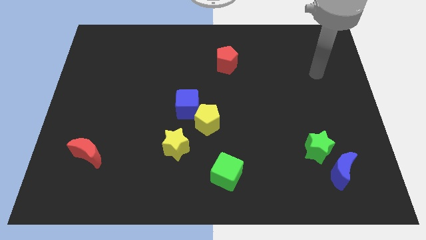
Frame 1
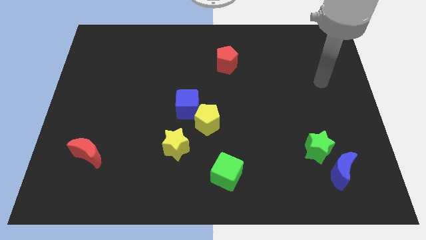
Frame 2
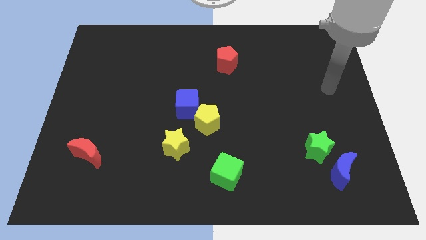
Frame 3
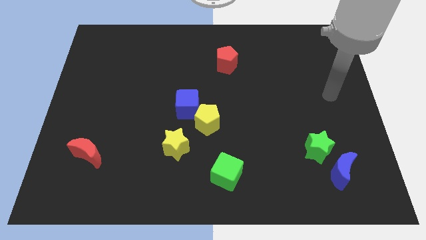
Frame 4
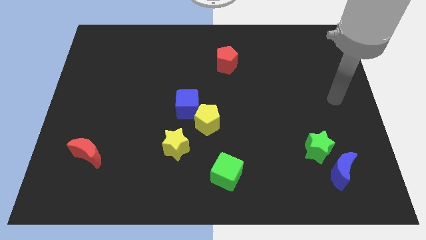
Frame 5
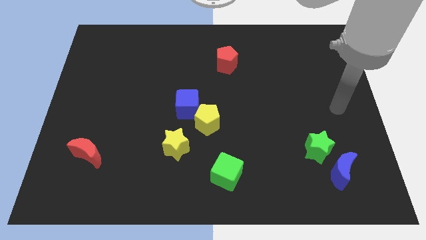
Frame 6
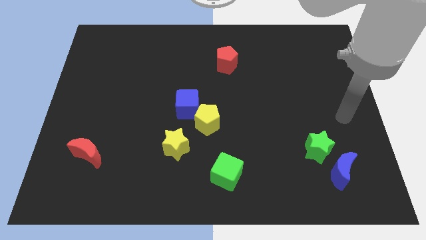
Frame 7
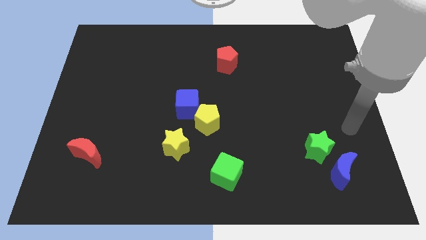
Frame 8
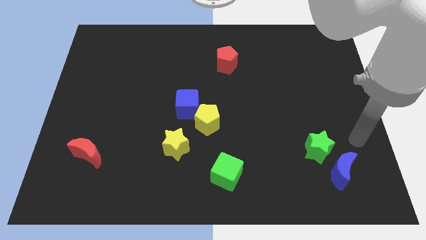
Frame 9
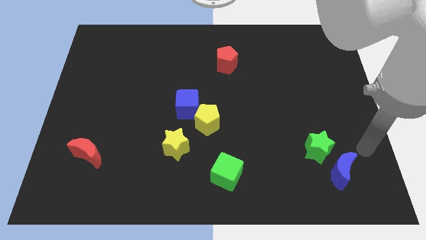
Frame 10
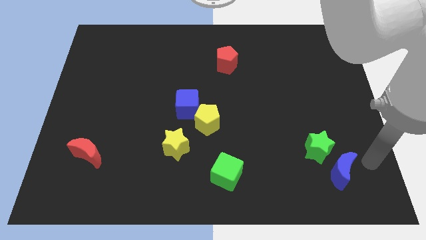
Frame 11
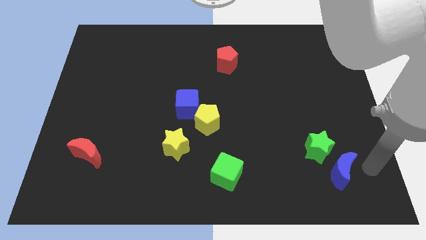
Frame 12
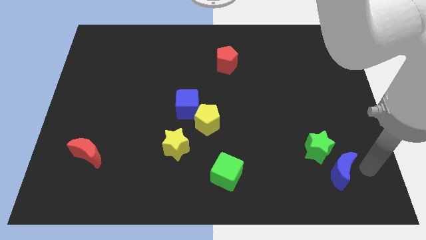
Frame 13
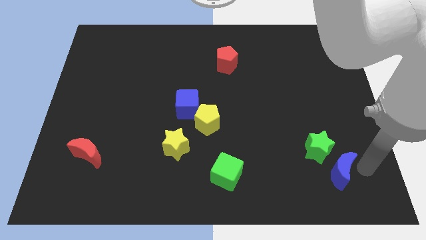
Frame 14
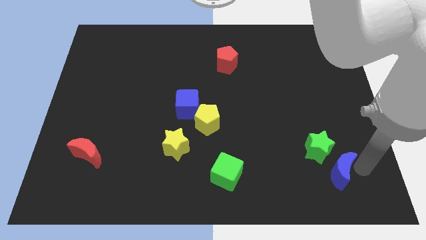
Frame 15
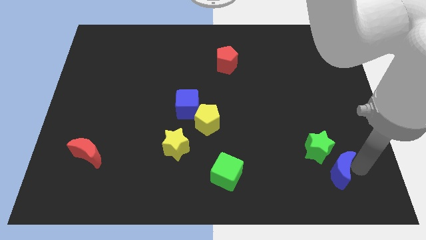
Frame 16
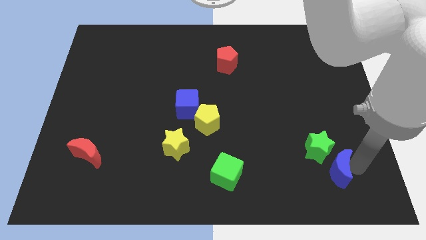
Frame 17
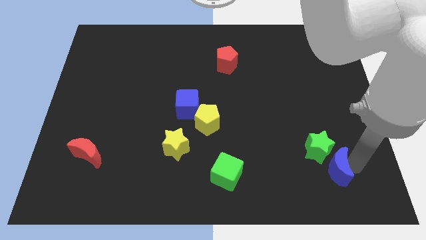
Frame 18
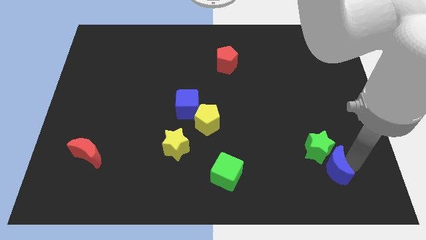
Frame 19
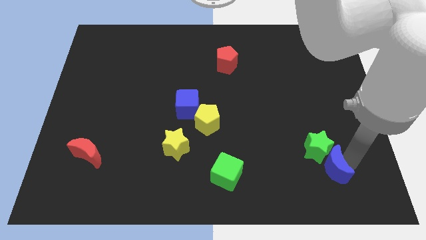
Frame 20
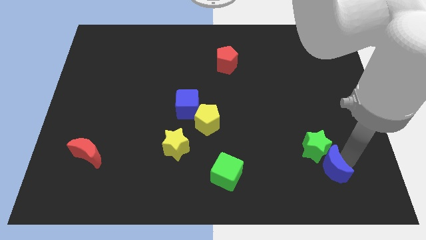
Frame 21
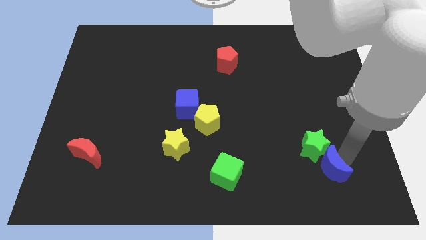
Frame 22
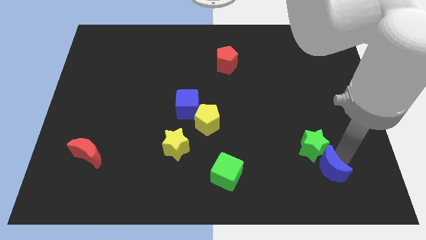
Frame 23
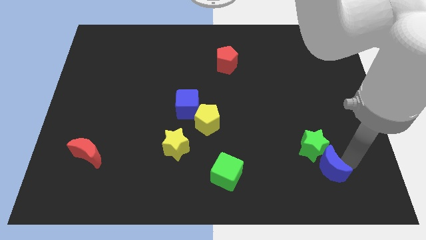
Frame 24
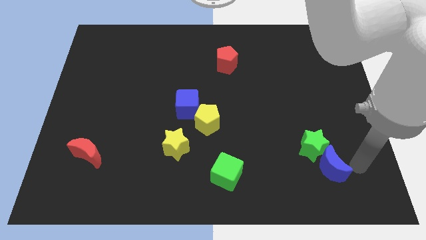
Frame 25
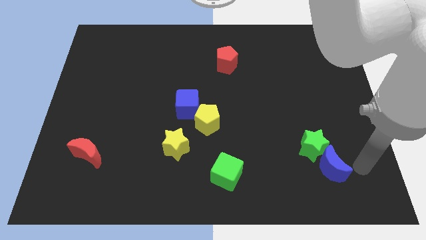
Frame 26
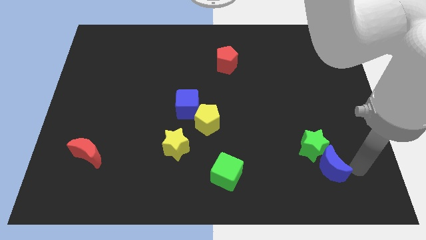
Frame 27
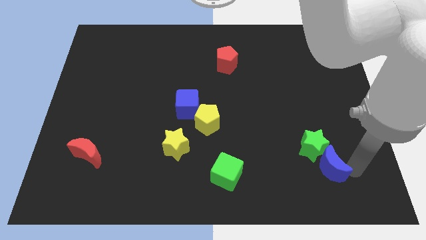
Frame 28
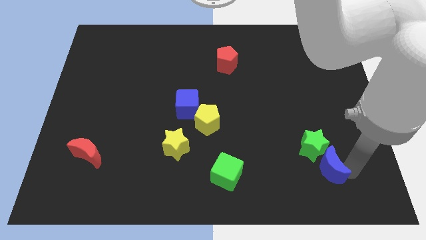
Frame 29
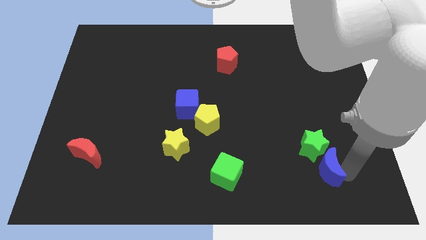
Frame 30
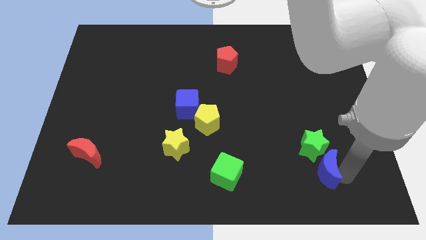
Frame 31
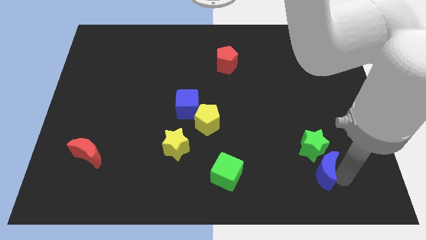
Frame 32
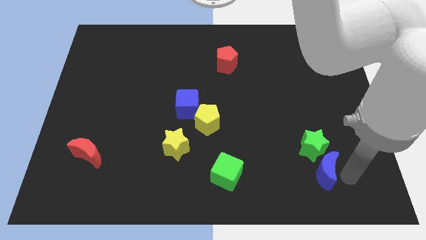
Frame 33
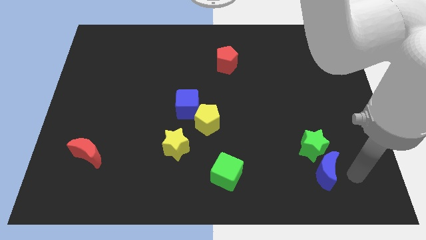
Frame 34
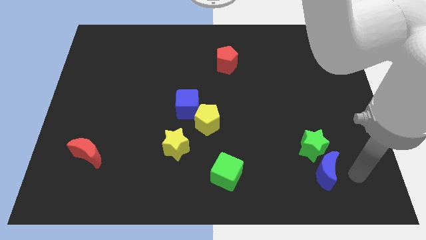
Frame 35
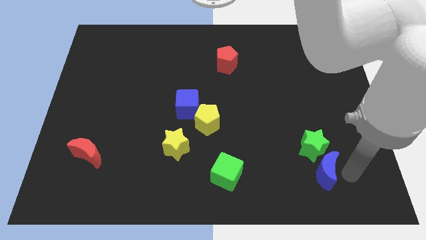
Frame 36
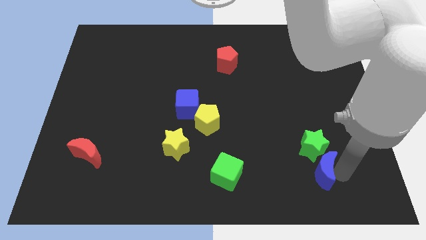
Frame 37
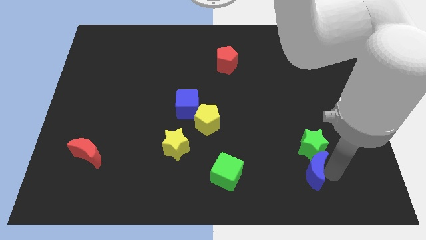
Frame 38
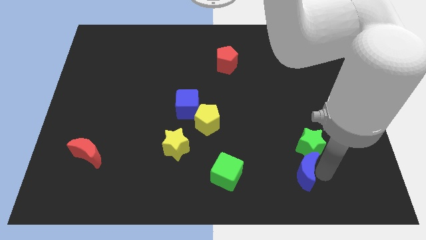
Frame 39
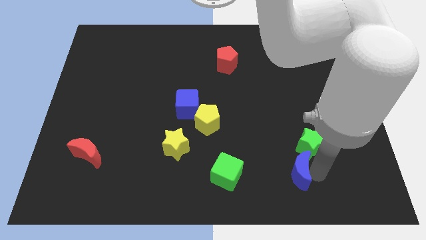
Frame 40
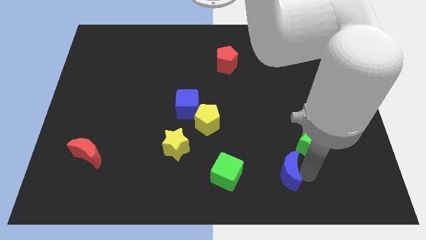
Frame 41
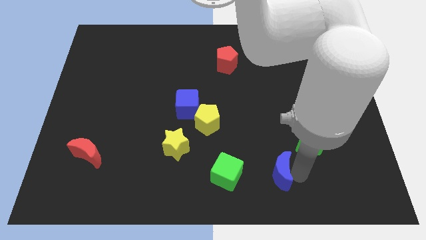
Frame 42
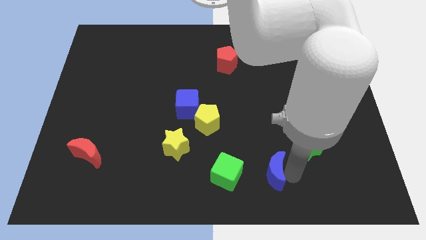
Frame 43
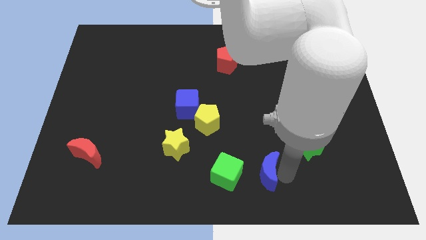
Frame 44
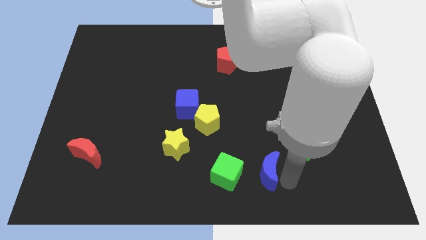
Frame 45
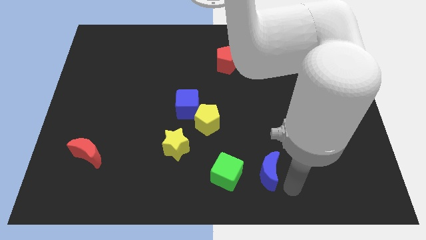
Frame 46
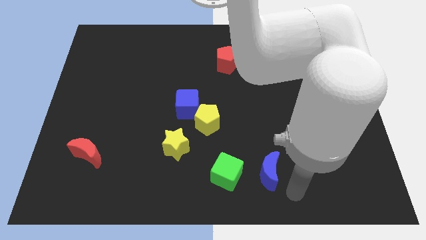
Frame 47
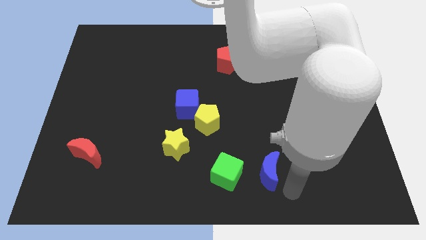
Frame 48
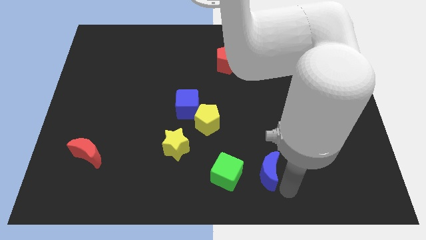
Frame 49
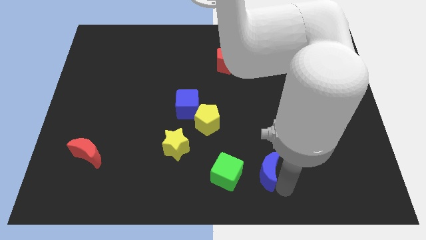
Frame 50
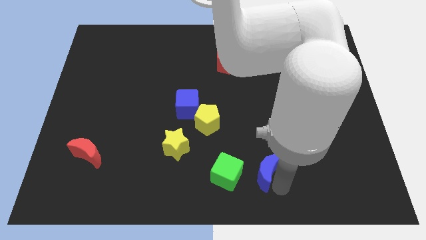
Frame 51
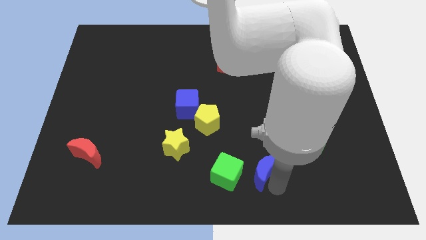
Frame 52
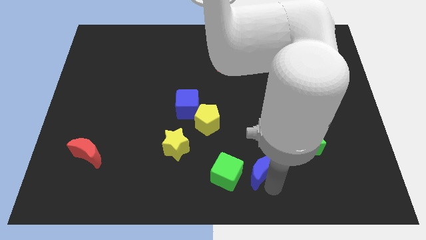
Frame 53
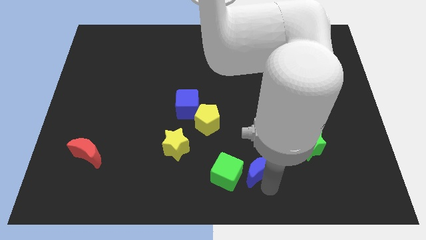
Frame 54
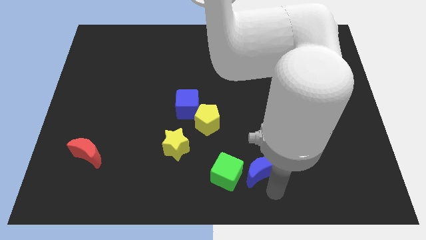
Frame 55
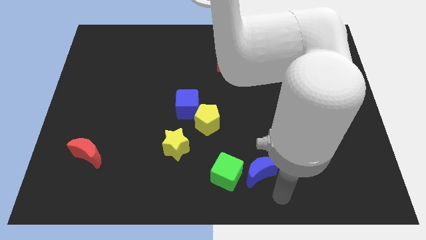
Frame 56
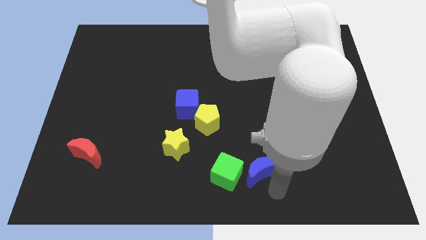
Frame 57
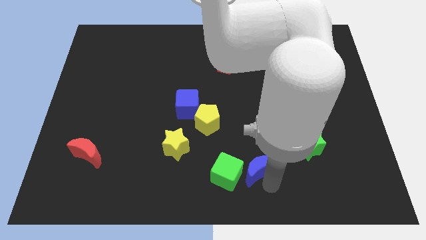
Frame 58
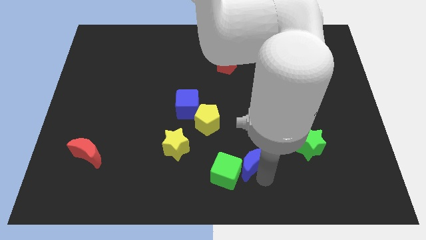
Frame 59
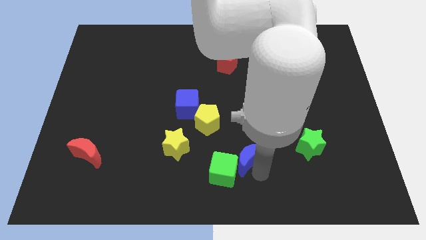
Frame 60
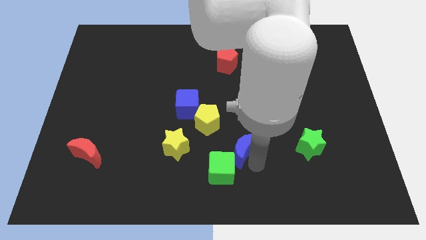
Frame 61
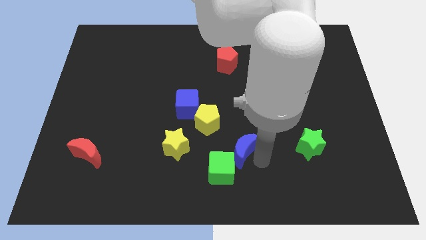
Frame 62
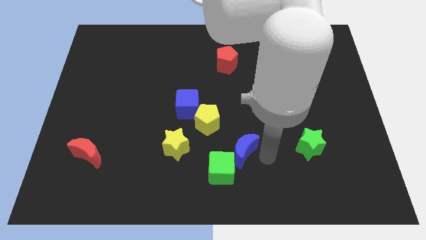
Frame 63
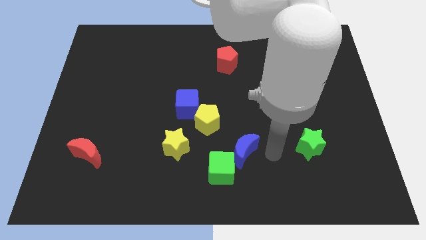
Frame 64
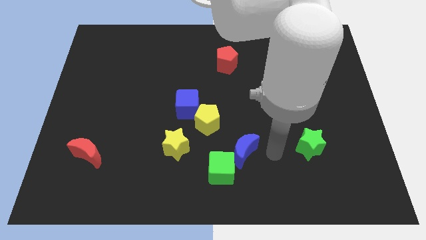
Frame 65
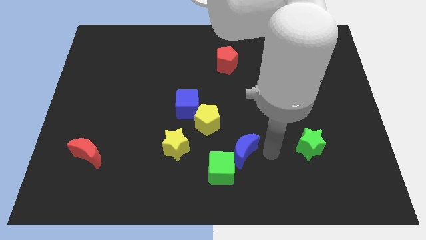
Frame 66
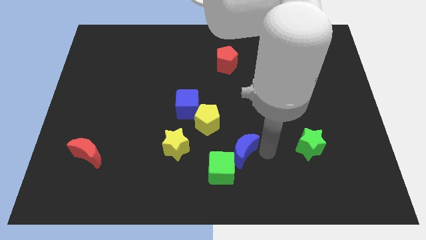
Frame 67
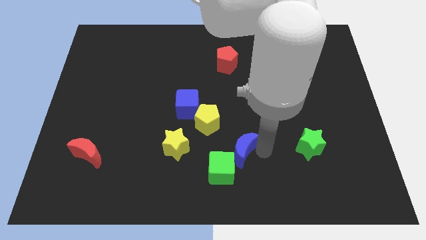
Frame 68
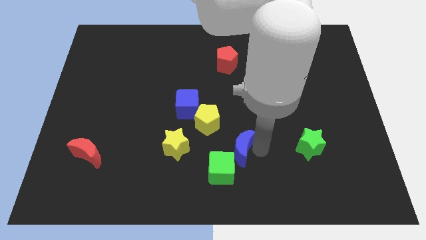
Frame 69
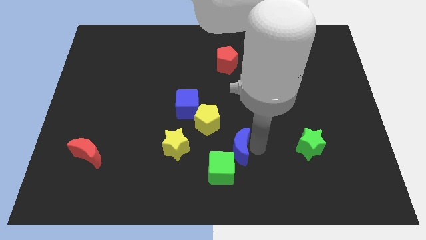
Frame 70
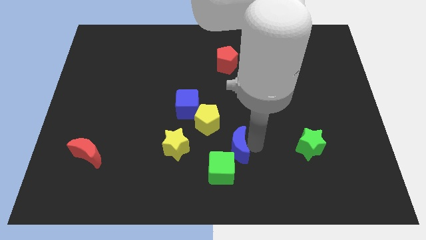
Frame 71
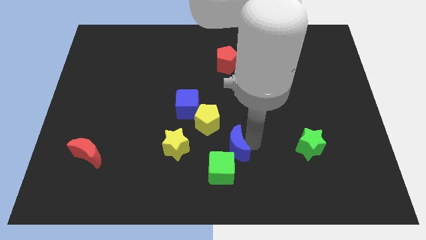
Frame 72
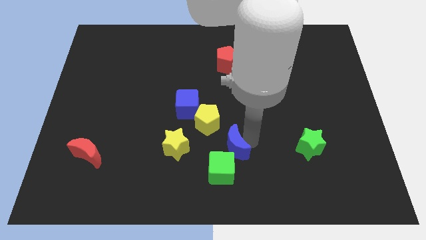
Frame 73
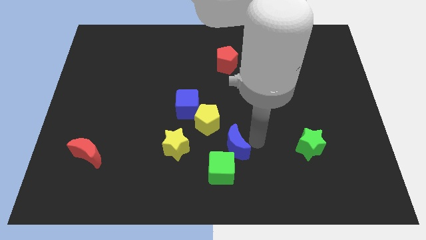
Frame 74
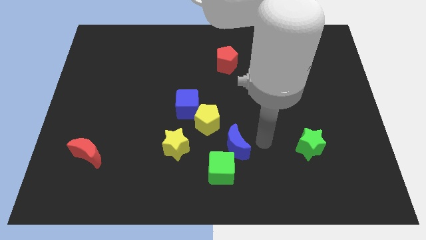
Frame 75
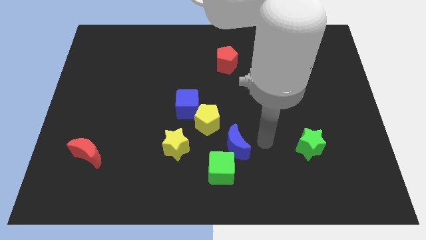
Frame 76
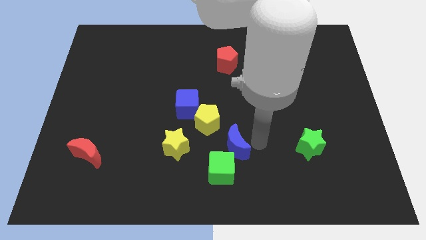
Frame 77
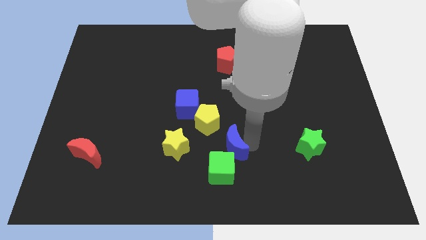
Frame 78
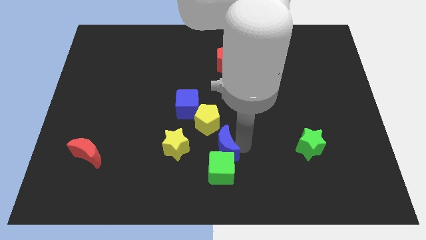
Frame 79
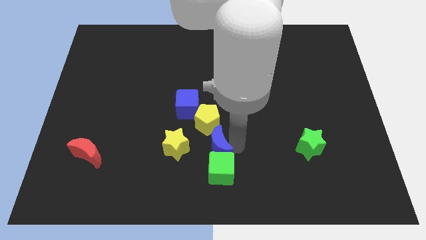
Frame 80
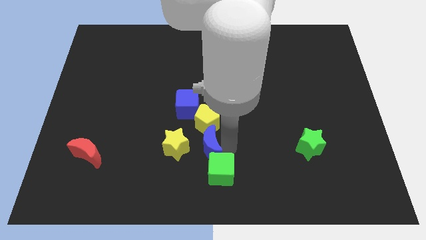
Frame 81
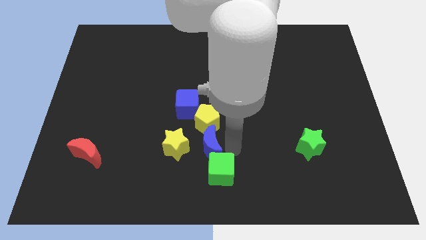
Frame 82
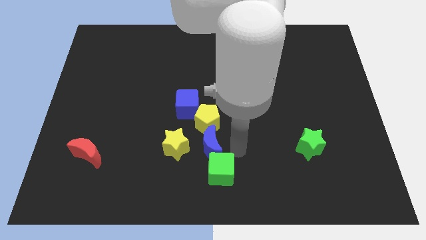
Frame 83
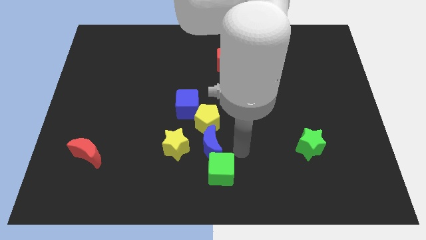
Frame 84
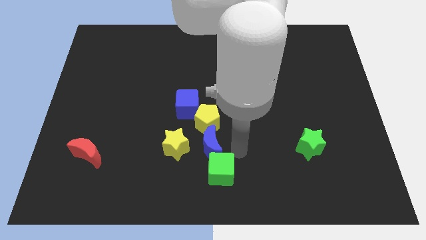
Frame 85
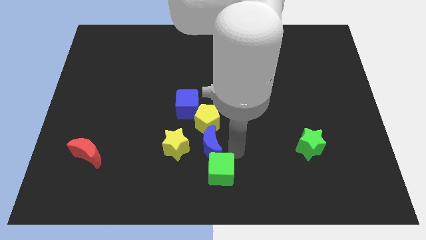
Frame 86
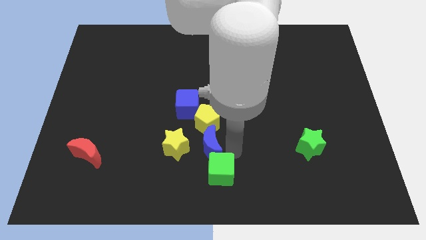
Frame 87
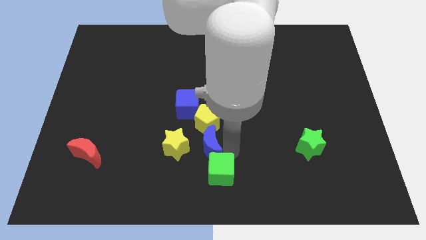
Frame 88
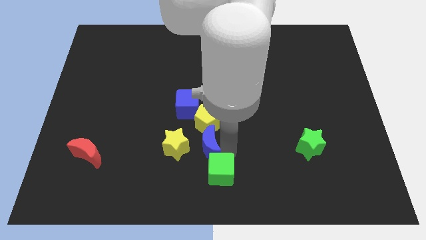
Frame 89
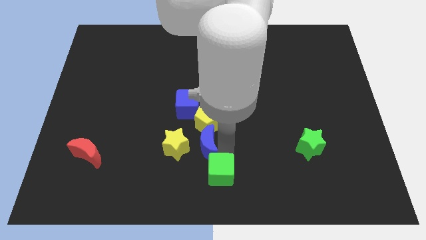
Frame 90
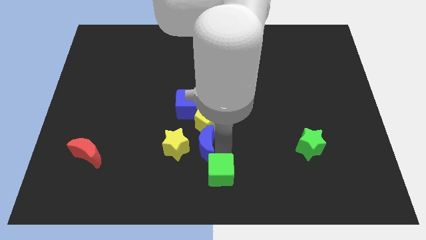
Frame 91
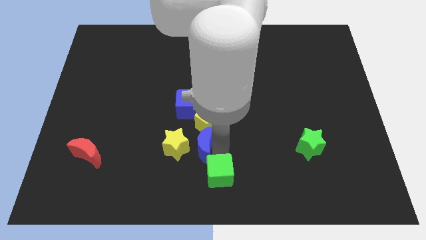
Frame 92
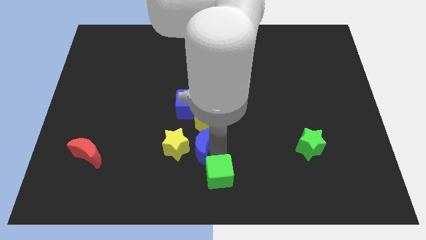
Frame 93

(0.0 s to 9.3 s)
push the blue moon to the yellow star
